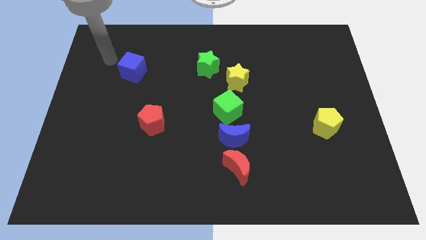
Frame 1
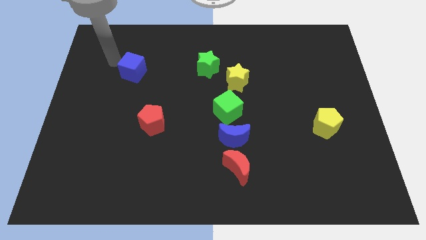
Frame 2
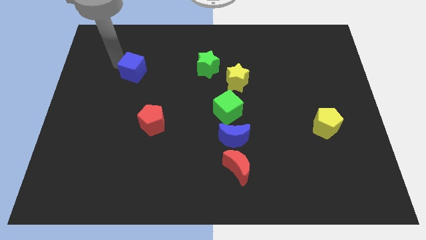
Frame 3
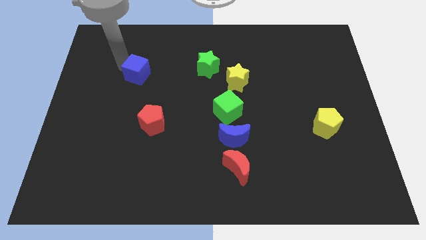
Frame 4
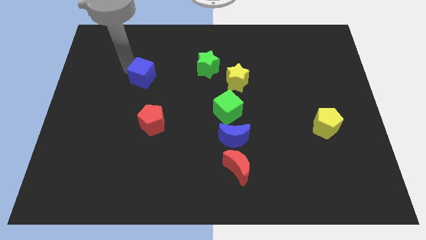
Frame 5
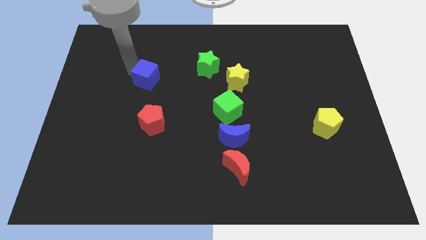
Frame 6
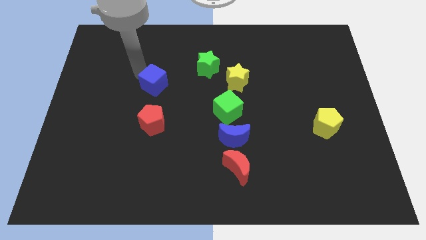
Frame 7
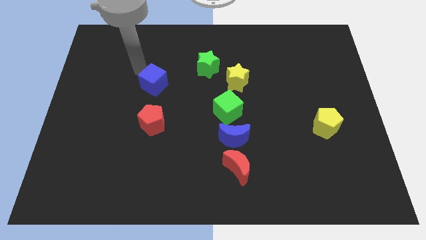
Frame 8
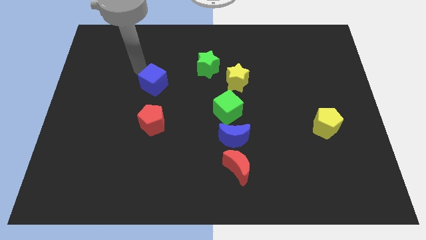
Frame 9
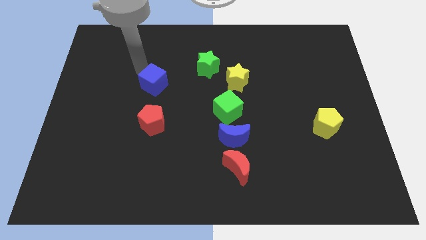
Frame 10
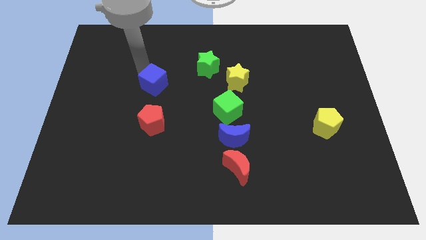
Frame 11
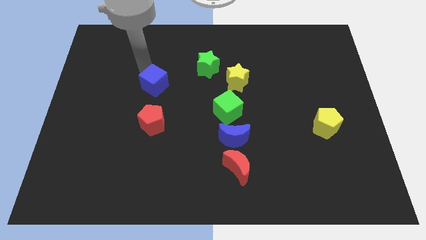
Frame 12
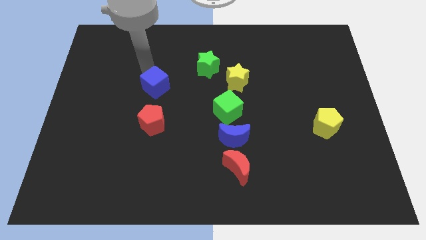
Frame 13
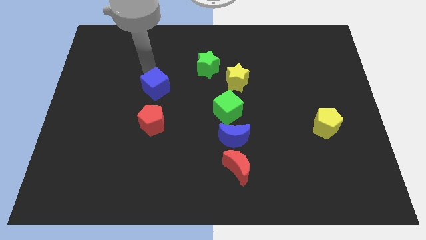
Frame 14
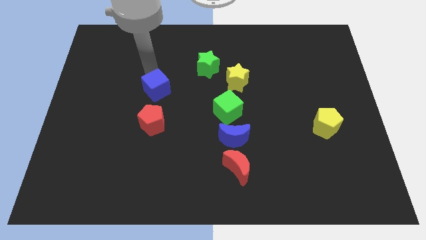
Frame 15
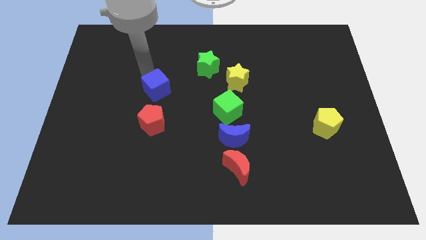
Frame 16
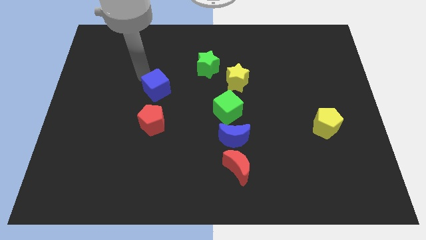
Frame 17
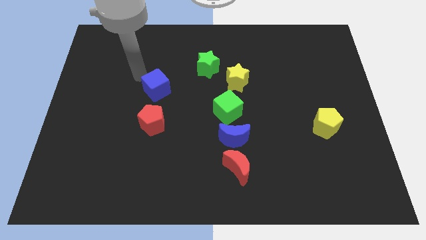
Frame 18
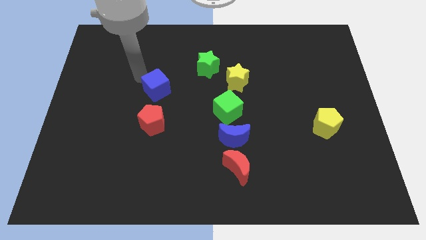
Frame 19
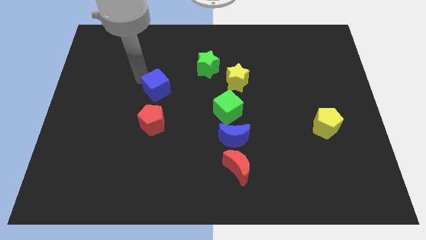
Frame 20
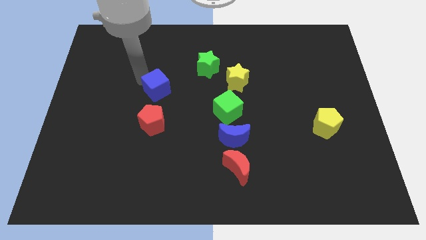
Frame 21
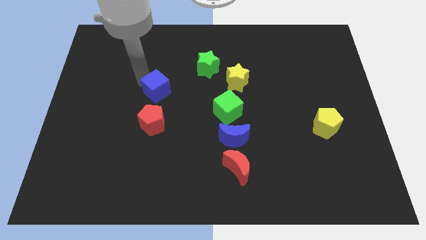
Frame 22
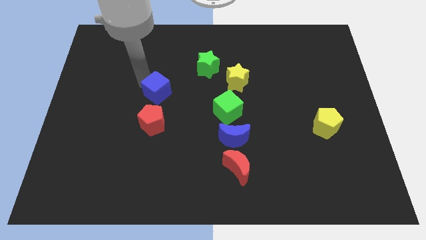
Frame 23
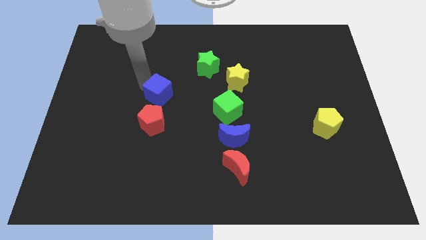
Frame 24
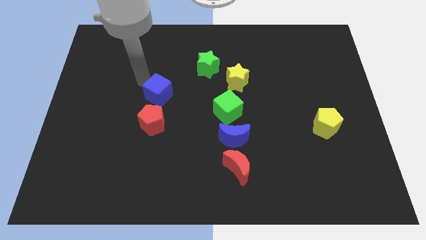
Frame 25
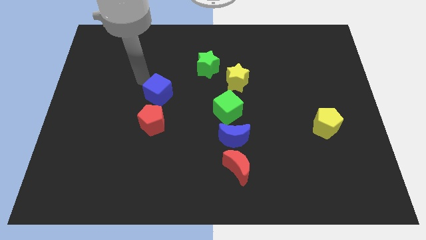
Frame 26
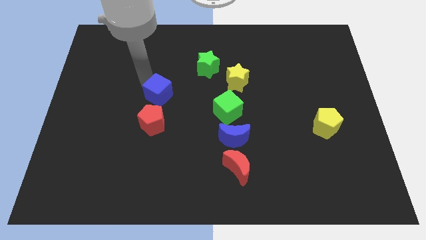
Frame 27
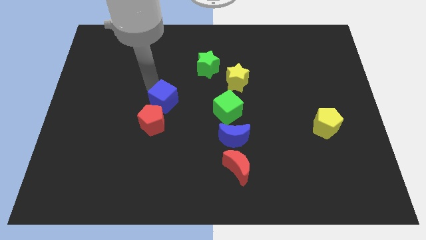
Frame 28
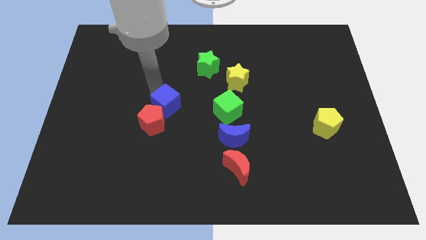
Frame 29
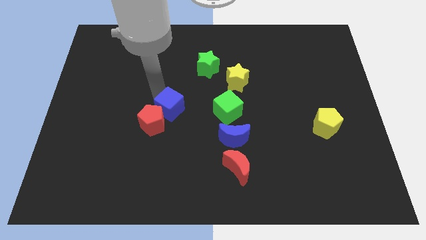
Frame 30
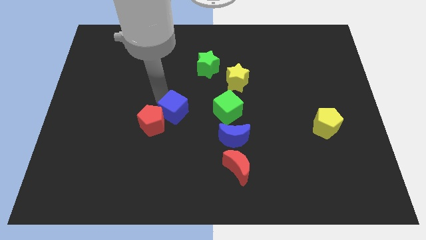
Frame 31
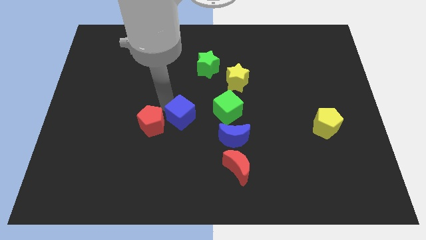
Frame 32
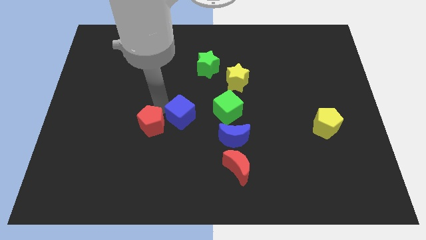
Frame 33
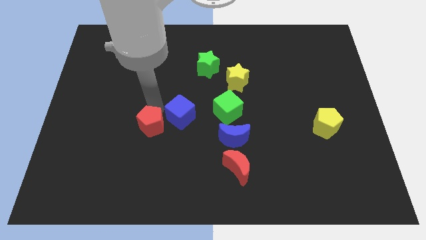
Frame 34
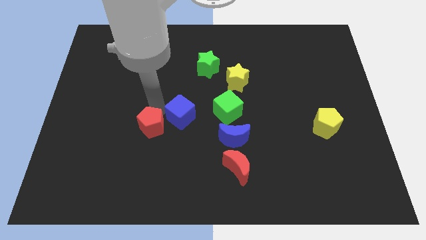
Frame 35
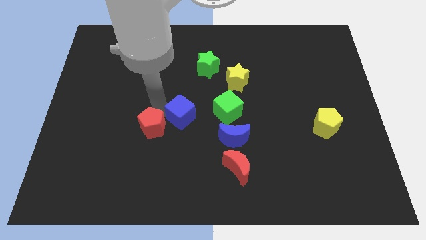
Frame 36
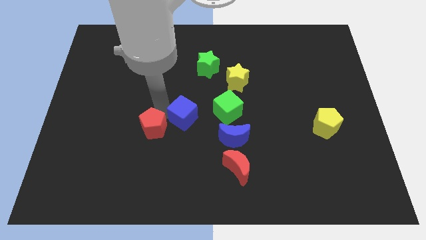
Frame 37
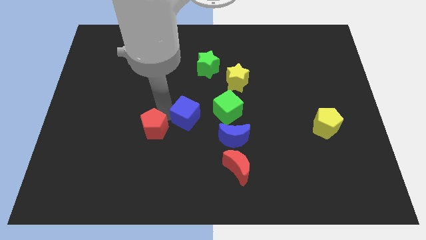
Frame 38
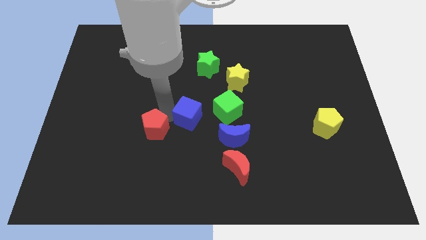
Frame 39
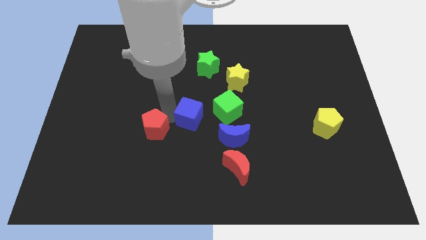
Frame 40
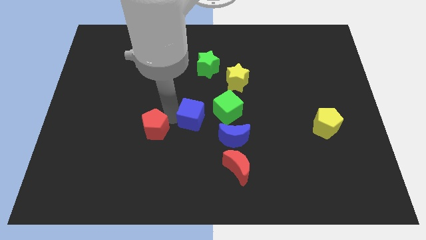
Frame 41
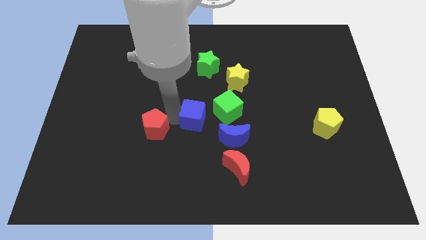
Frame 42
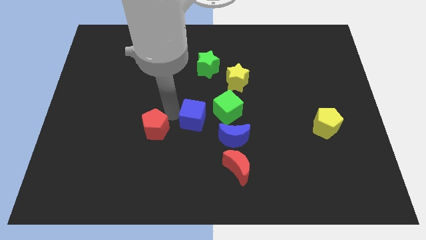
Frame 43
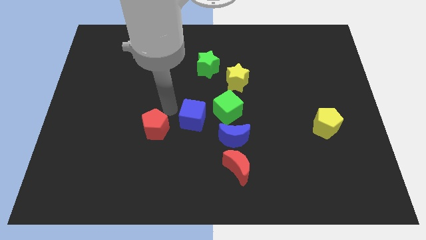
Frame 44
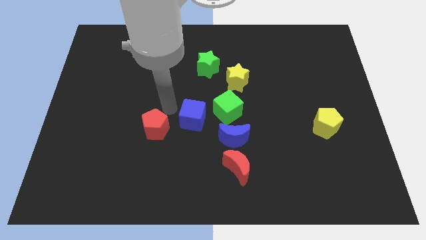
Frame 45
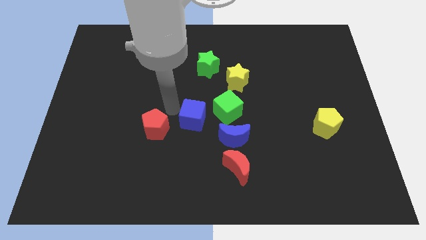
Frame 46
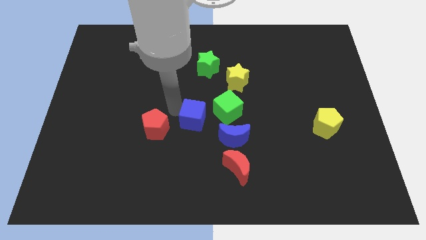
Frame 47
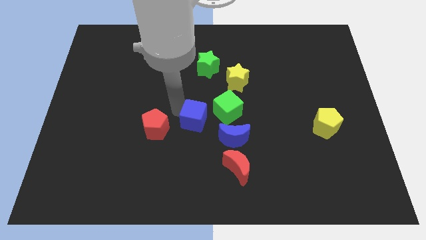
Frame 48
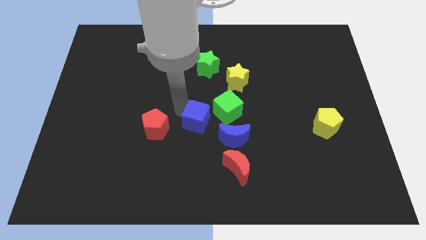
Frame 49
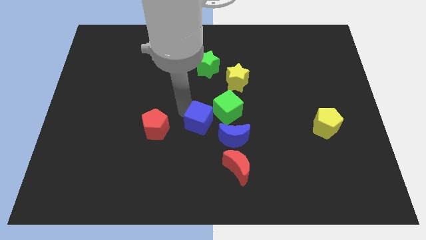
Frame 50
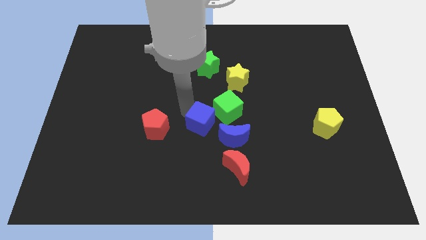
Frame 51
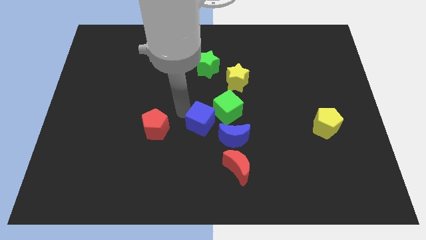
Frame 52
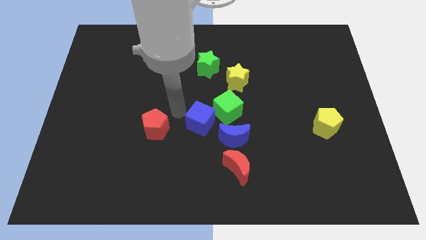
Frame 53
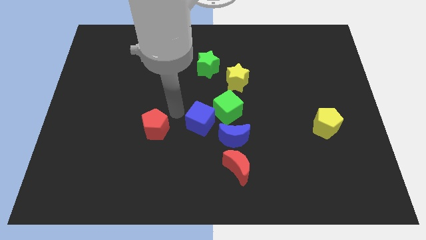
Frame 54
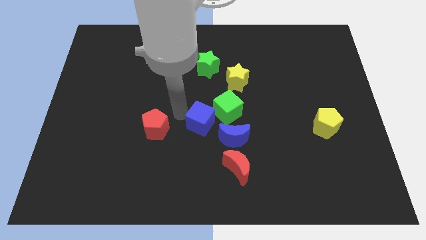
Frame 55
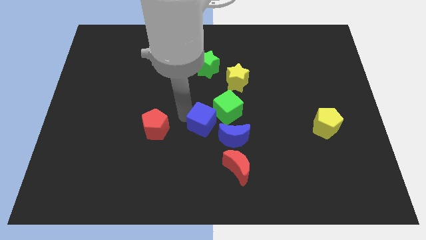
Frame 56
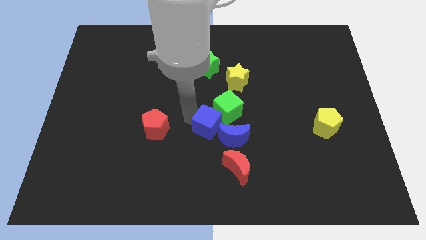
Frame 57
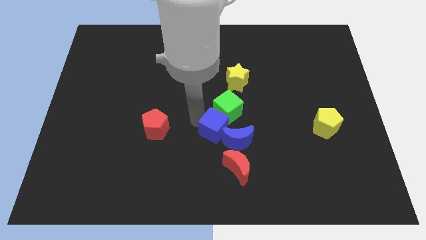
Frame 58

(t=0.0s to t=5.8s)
push the blue cube towards the blue moon

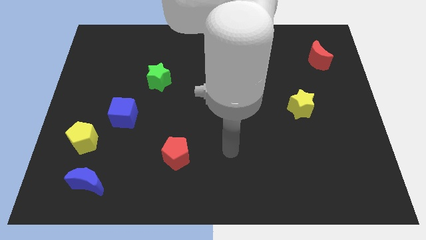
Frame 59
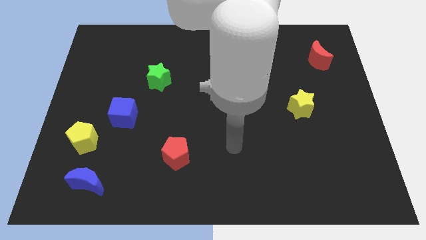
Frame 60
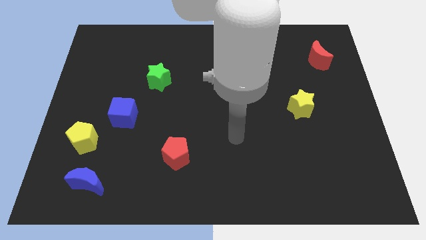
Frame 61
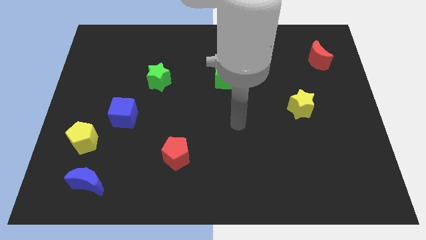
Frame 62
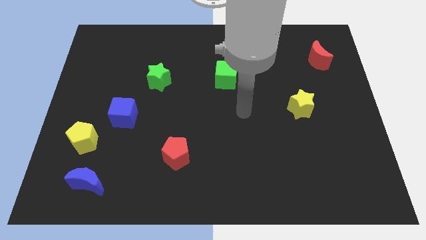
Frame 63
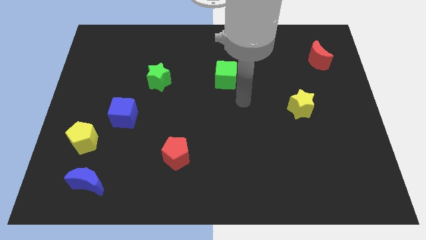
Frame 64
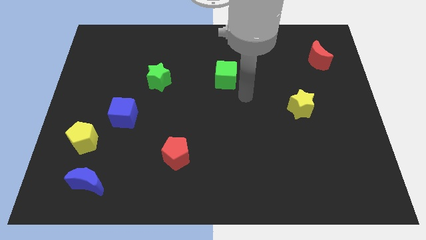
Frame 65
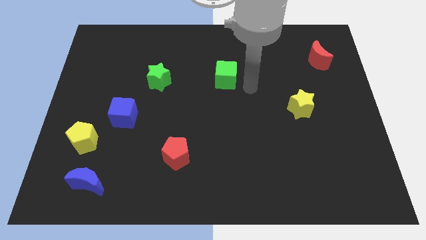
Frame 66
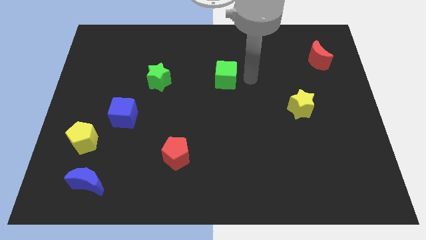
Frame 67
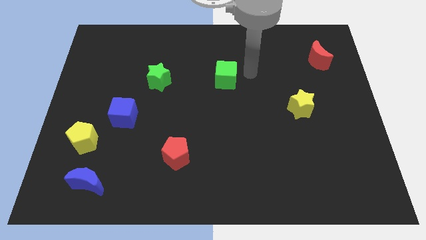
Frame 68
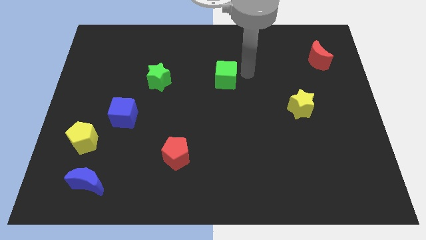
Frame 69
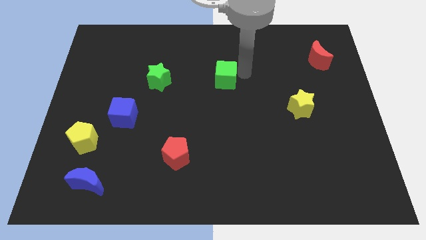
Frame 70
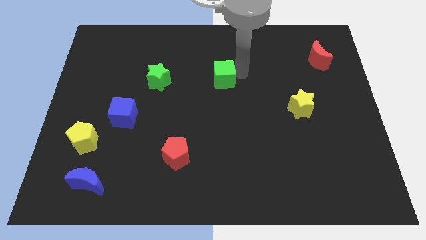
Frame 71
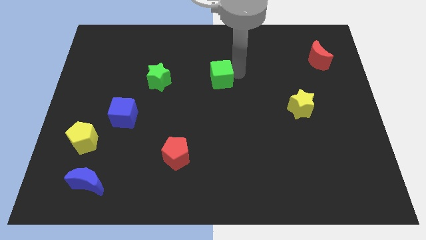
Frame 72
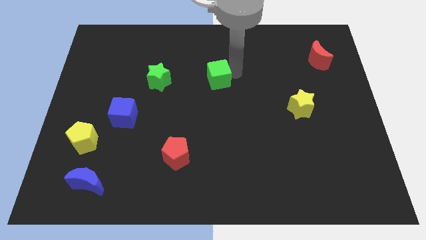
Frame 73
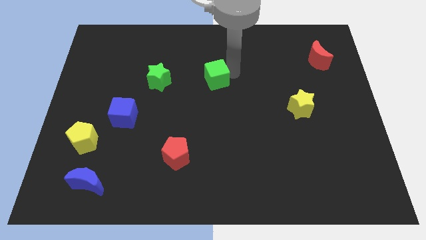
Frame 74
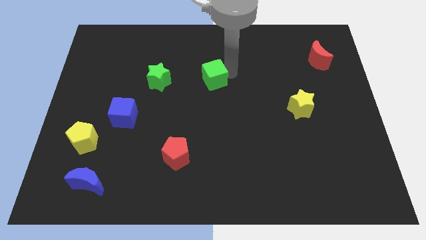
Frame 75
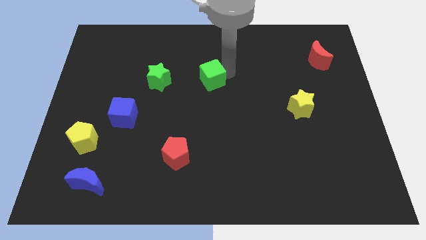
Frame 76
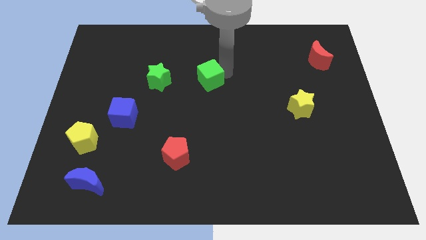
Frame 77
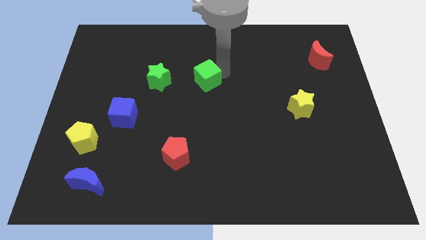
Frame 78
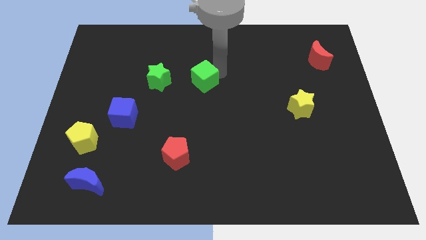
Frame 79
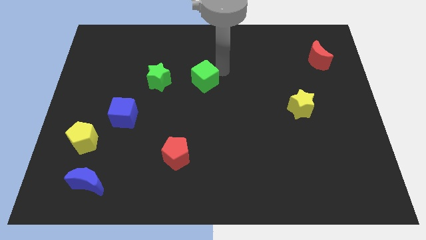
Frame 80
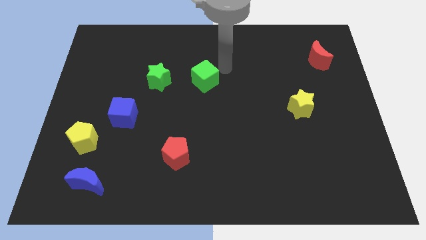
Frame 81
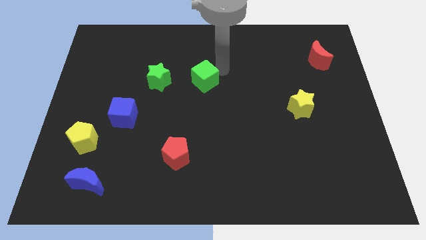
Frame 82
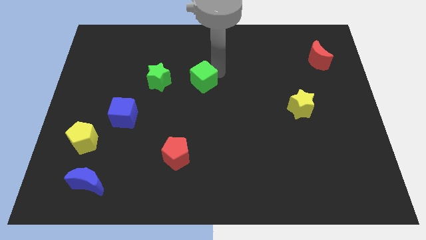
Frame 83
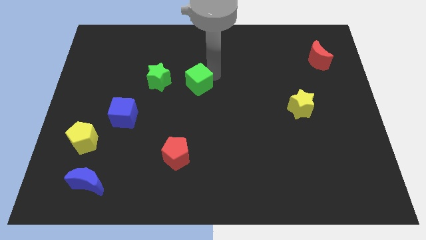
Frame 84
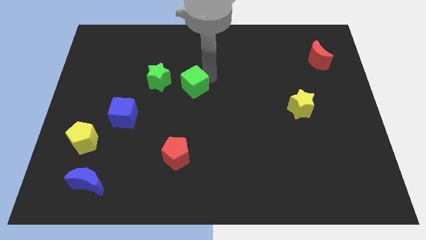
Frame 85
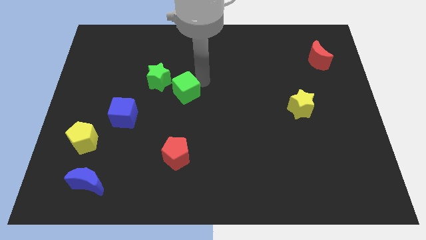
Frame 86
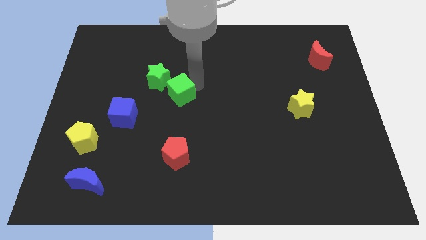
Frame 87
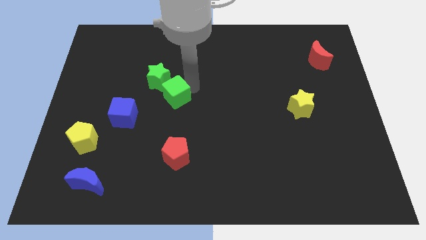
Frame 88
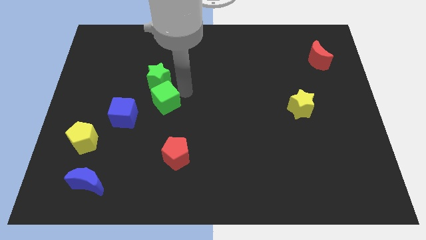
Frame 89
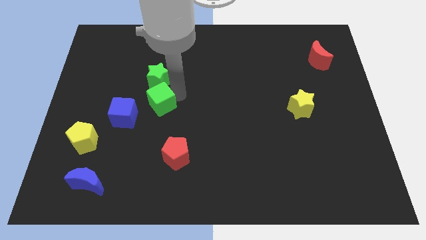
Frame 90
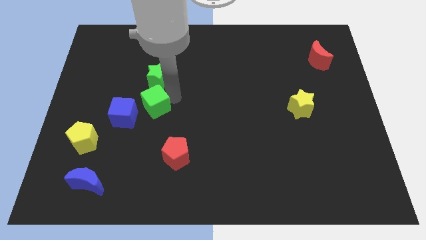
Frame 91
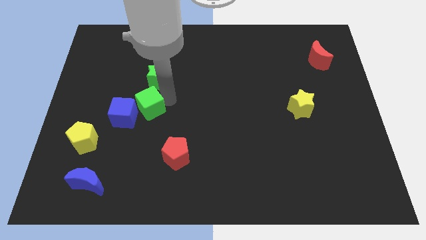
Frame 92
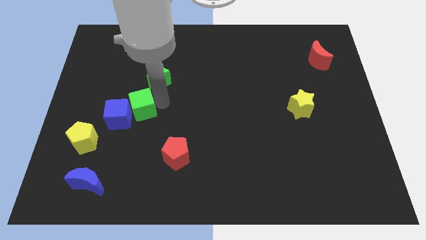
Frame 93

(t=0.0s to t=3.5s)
move the green cube next to the blue cube
